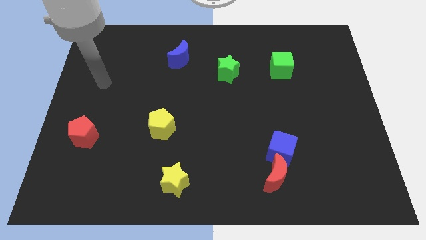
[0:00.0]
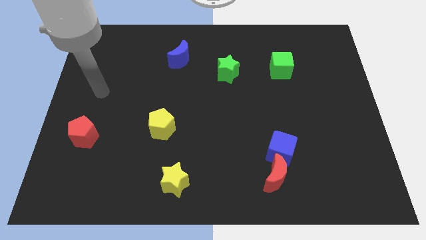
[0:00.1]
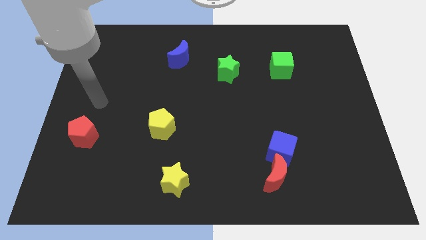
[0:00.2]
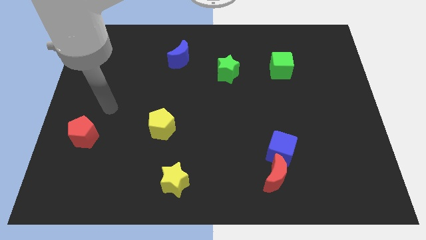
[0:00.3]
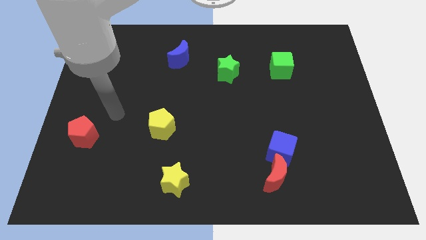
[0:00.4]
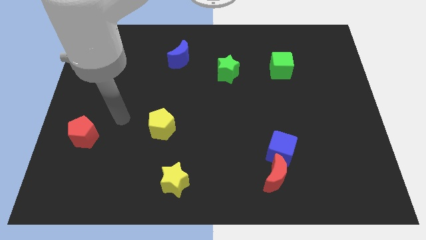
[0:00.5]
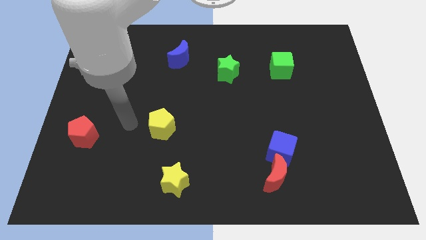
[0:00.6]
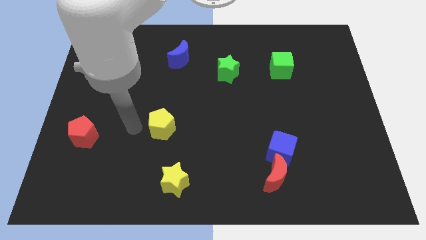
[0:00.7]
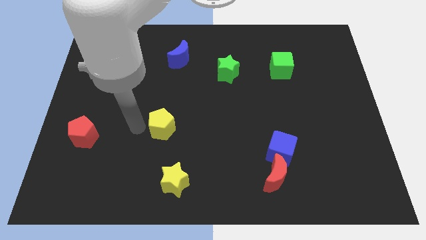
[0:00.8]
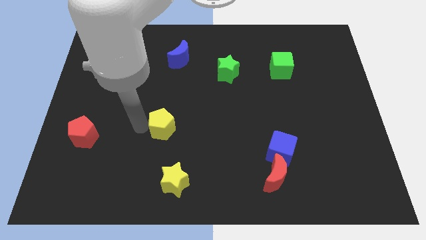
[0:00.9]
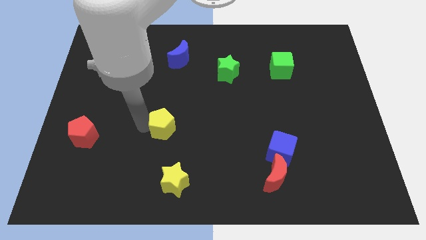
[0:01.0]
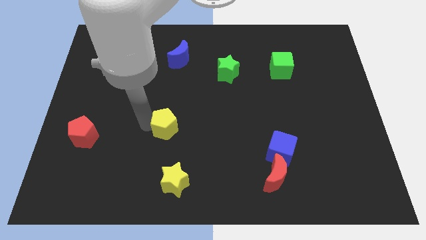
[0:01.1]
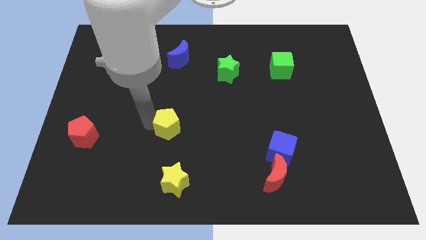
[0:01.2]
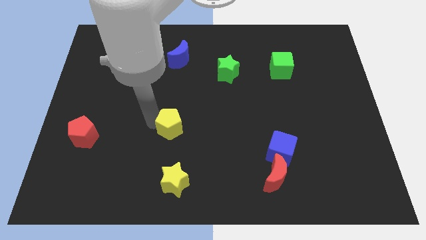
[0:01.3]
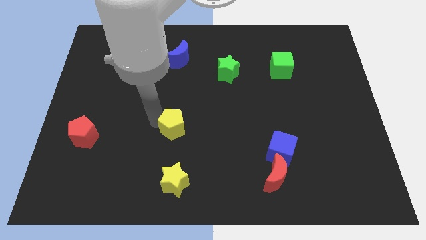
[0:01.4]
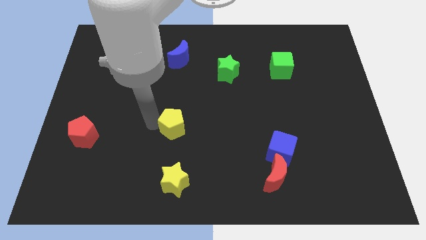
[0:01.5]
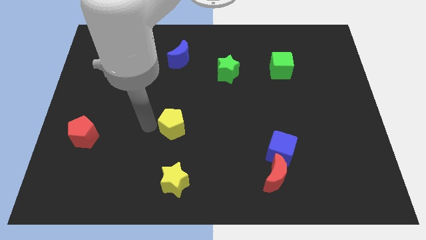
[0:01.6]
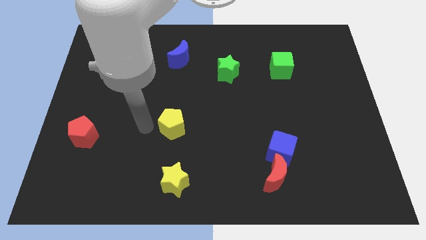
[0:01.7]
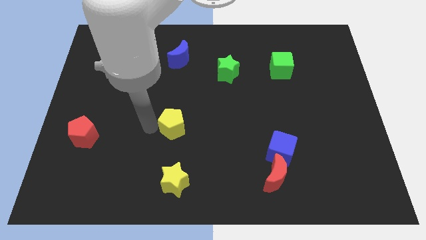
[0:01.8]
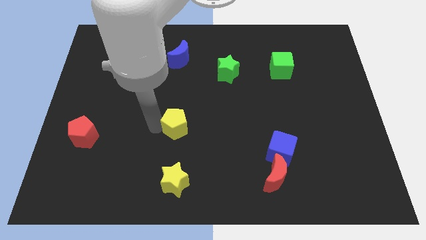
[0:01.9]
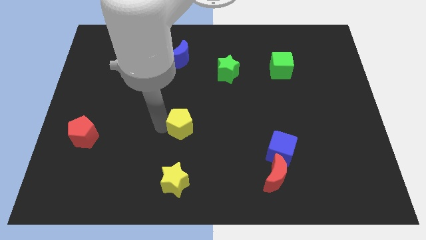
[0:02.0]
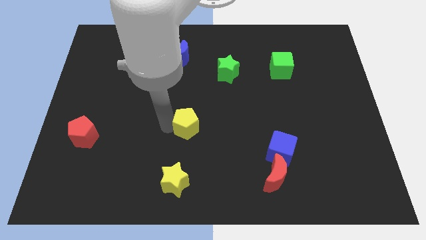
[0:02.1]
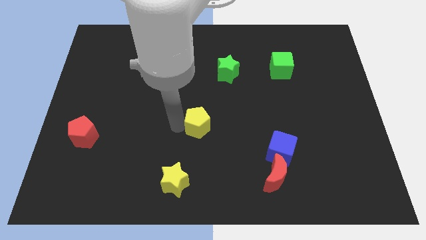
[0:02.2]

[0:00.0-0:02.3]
slide the yellow pentagon a bit to the right

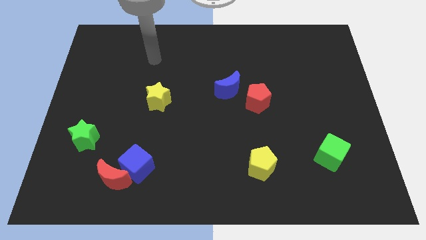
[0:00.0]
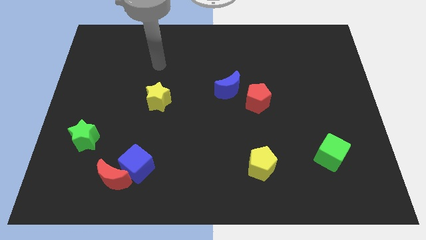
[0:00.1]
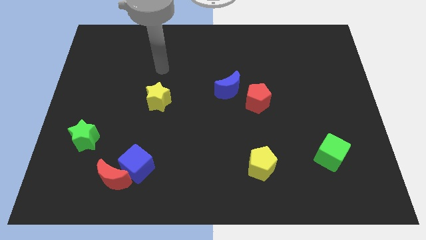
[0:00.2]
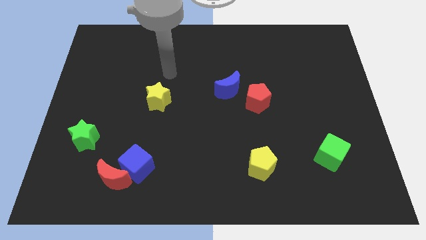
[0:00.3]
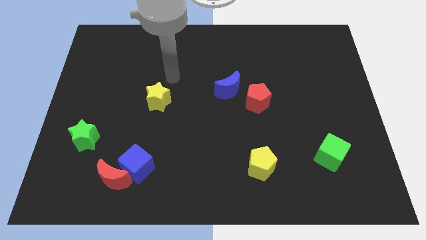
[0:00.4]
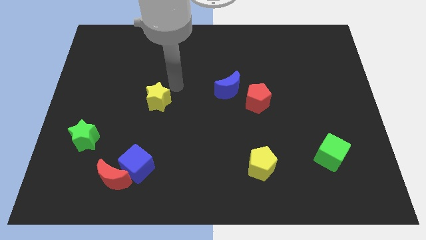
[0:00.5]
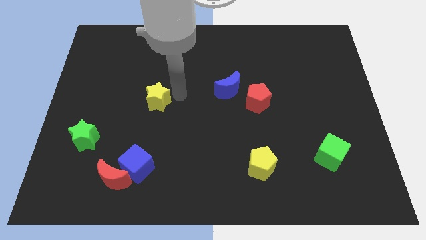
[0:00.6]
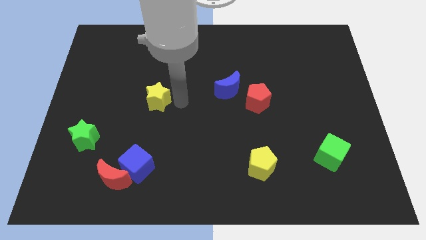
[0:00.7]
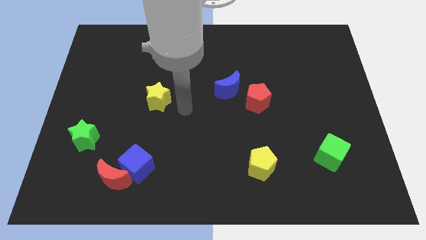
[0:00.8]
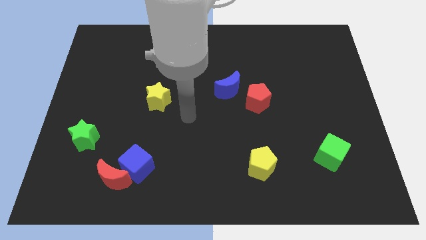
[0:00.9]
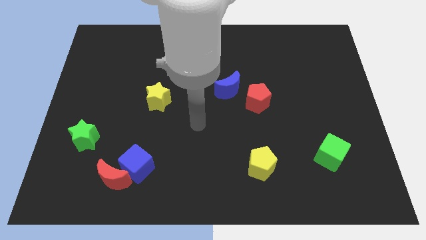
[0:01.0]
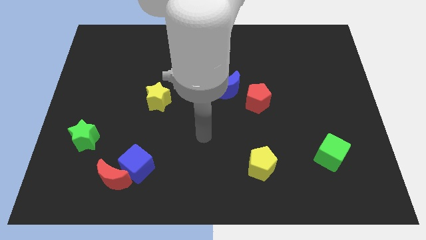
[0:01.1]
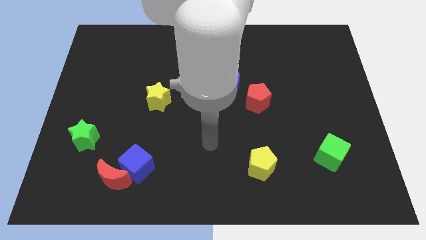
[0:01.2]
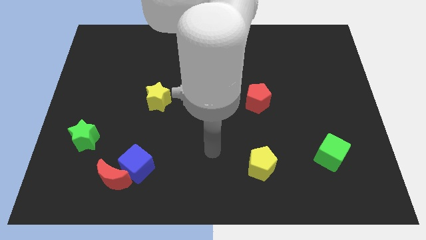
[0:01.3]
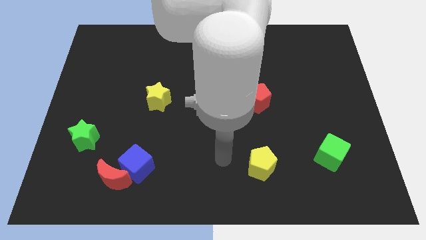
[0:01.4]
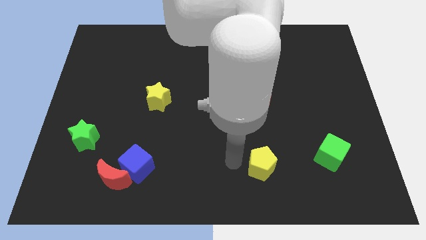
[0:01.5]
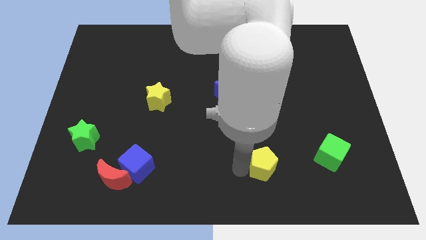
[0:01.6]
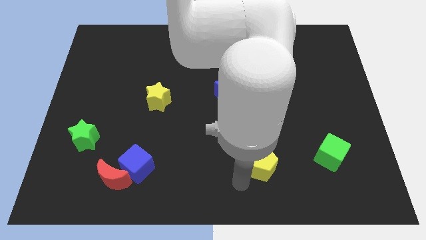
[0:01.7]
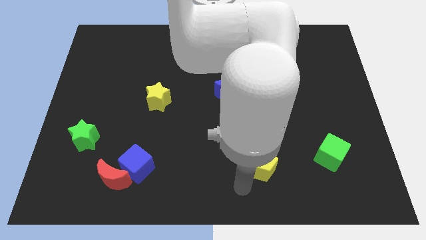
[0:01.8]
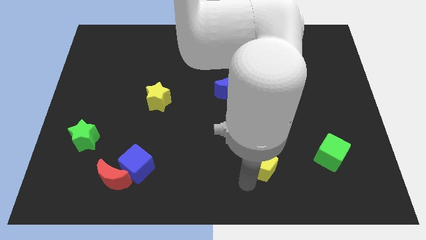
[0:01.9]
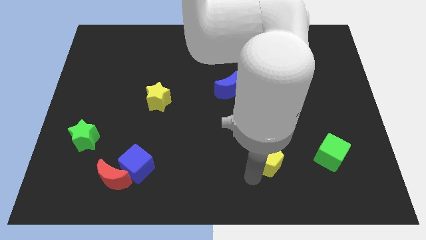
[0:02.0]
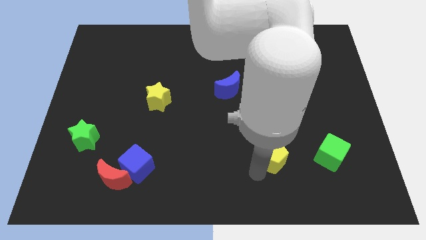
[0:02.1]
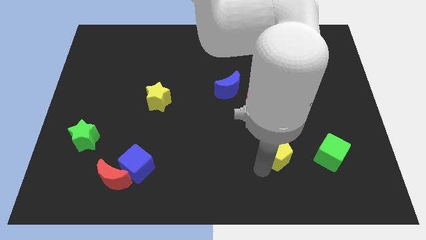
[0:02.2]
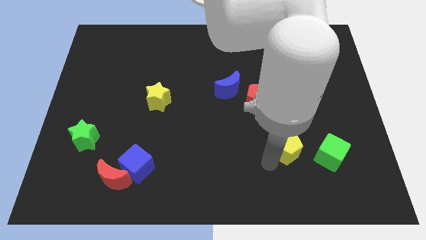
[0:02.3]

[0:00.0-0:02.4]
slide the yellow pentagon slightly upwards and right

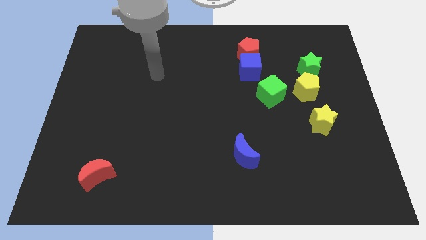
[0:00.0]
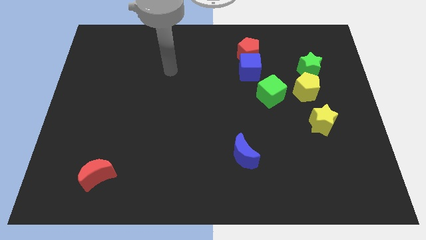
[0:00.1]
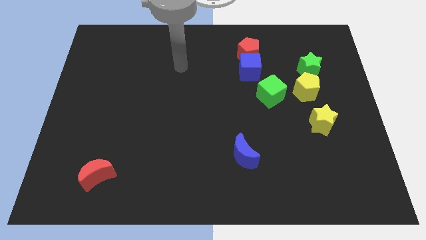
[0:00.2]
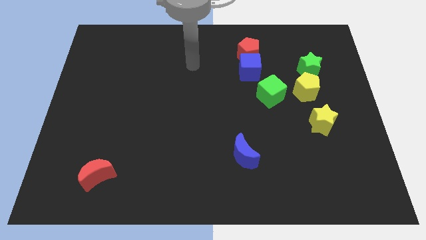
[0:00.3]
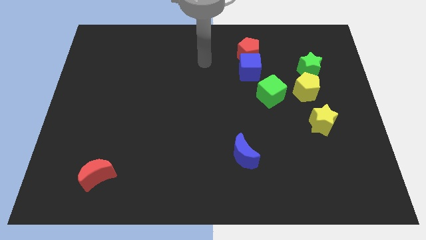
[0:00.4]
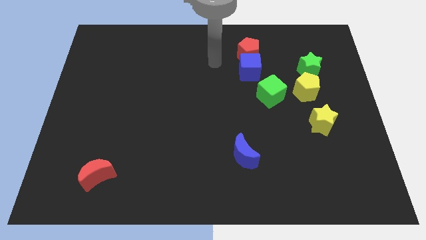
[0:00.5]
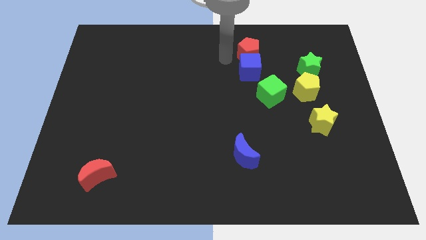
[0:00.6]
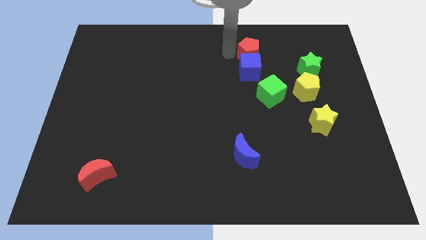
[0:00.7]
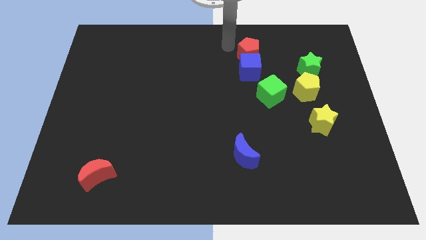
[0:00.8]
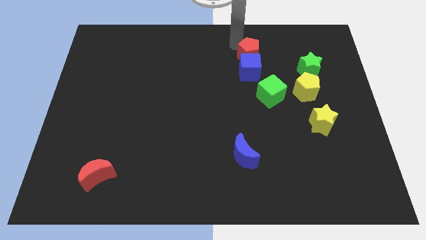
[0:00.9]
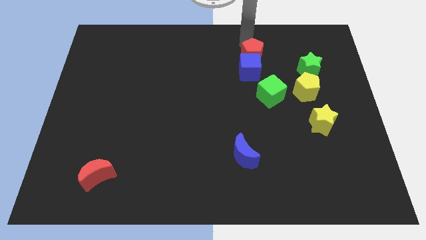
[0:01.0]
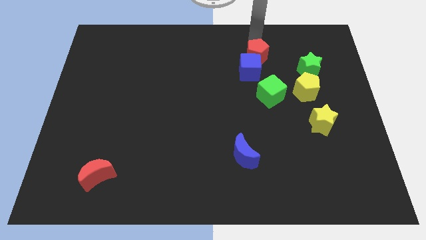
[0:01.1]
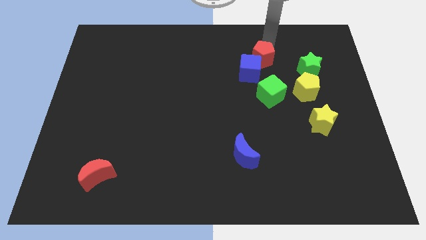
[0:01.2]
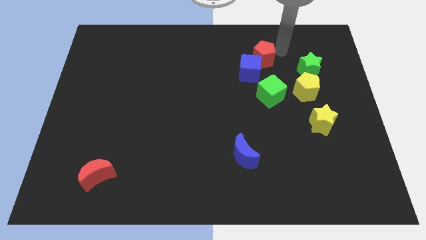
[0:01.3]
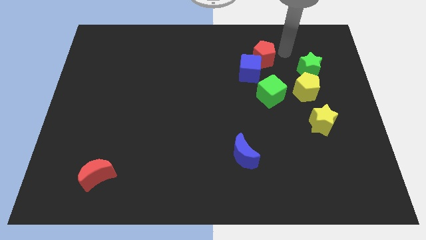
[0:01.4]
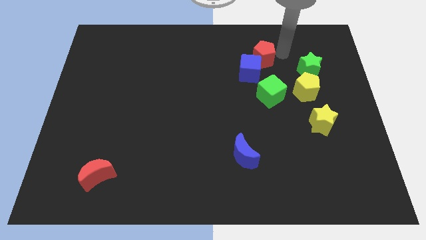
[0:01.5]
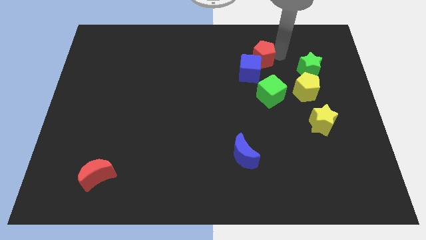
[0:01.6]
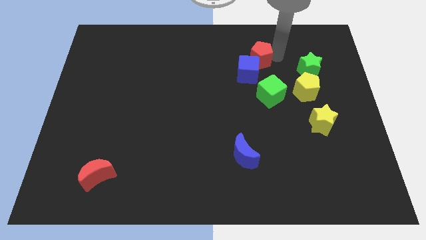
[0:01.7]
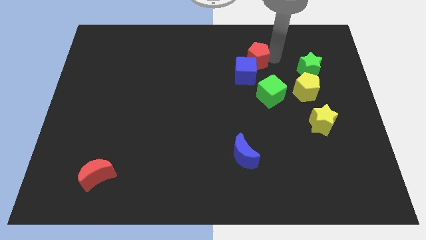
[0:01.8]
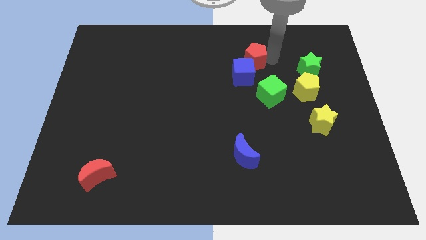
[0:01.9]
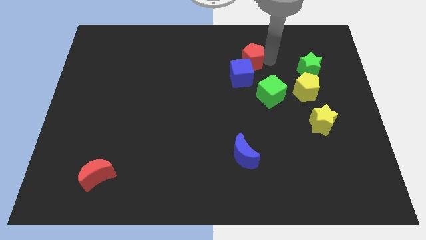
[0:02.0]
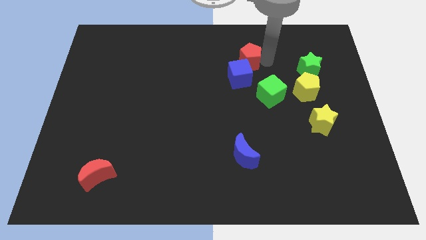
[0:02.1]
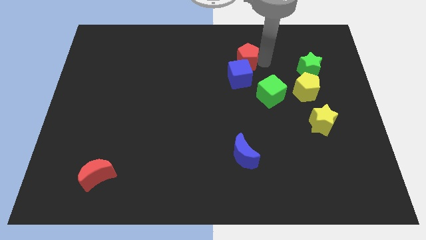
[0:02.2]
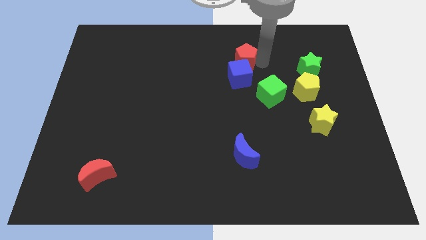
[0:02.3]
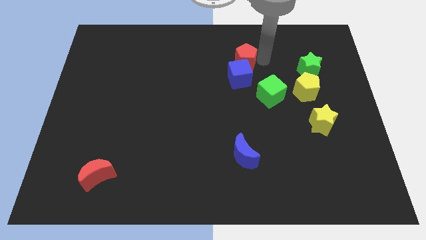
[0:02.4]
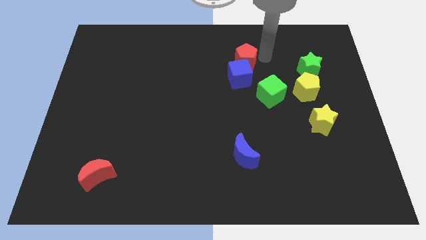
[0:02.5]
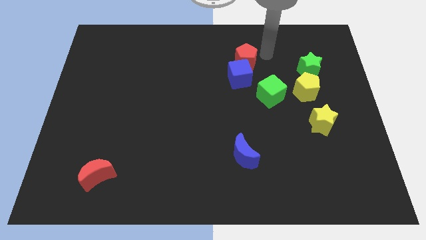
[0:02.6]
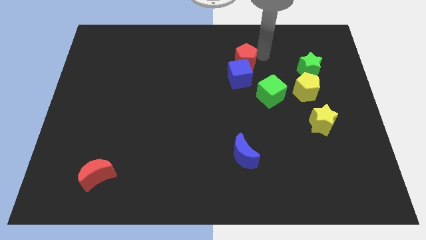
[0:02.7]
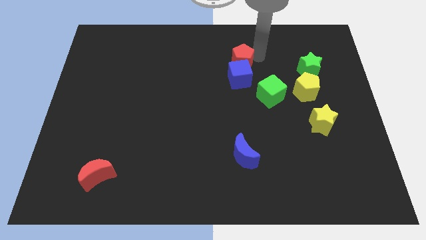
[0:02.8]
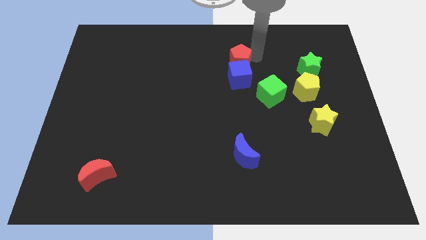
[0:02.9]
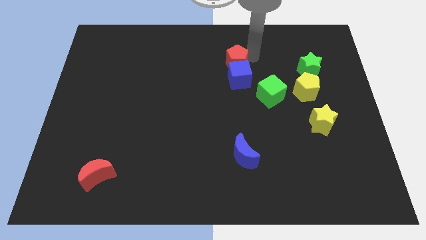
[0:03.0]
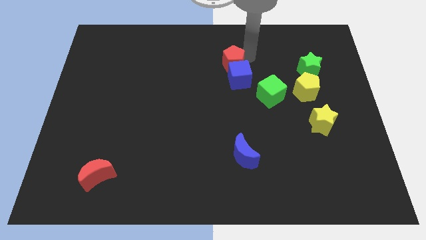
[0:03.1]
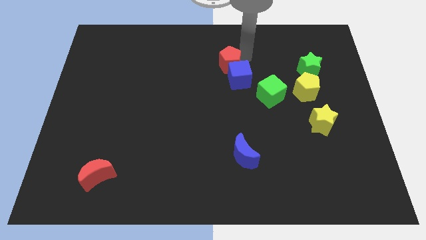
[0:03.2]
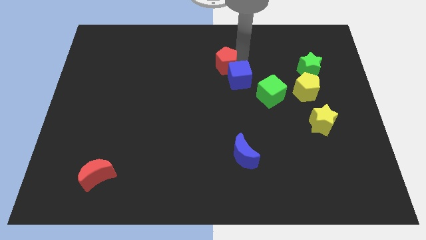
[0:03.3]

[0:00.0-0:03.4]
move the red pentagon a bit diagonally down and left
